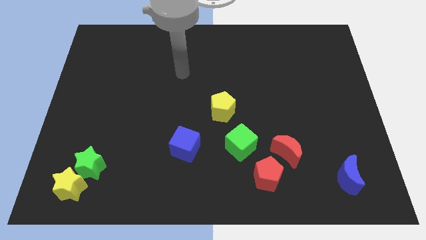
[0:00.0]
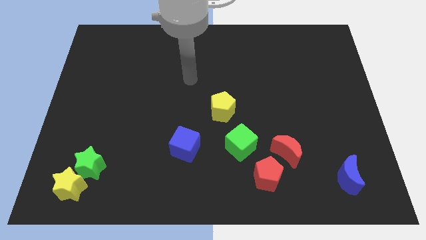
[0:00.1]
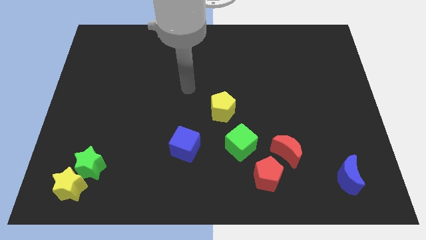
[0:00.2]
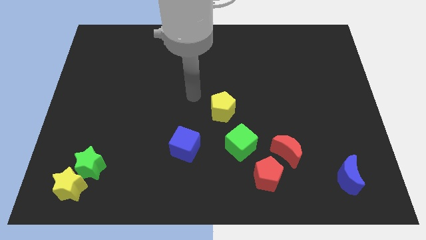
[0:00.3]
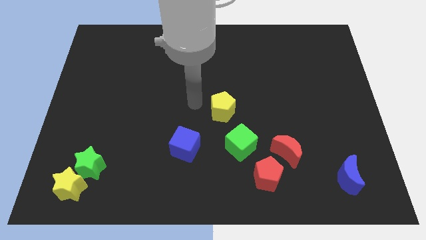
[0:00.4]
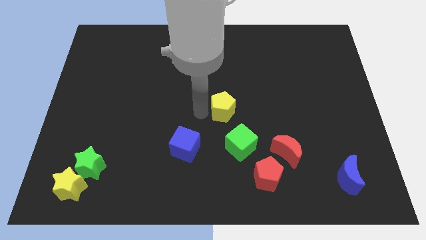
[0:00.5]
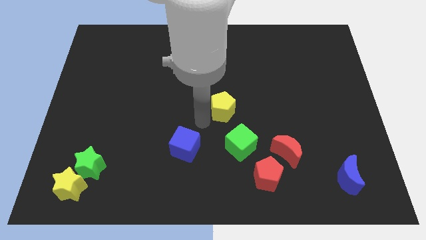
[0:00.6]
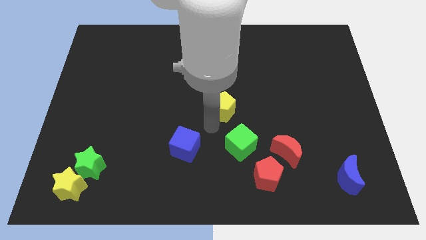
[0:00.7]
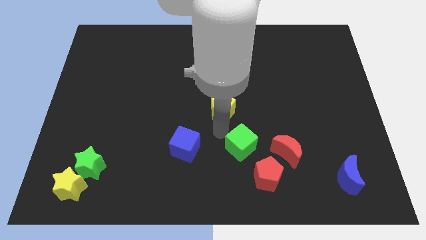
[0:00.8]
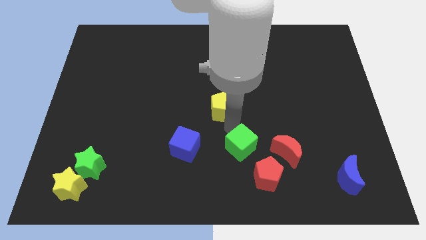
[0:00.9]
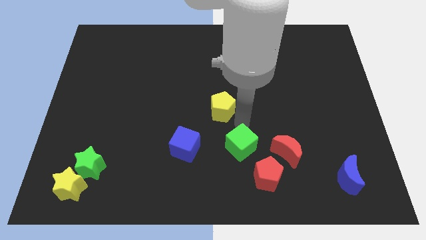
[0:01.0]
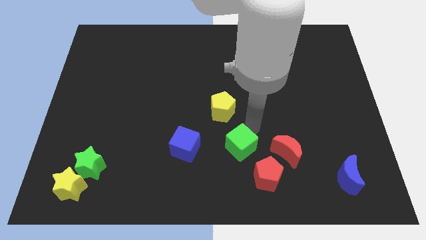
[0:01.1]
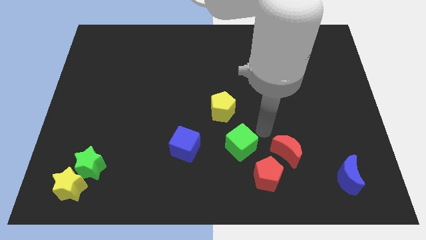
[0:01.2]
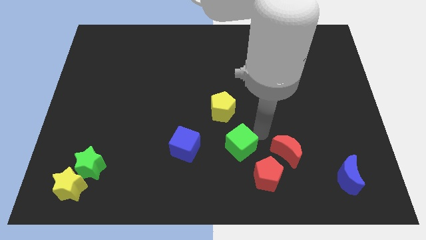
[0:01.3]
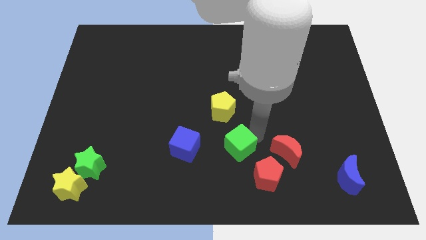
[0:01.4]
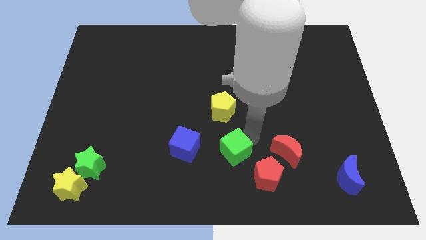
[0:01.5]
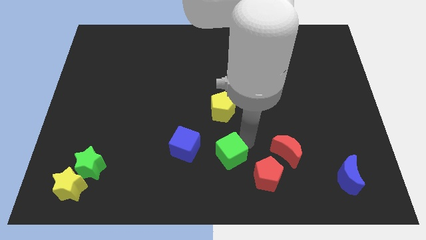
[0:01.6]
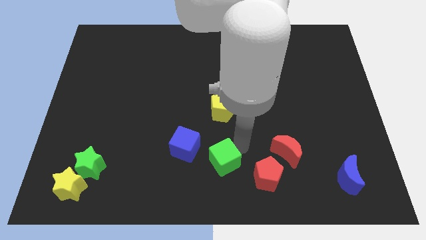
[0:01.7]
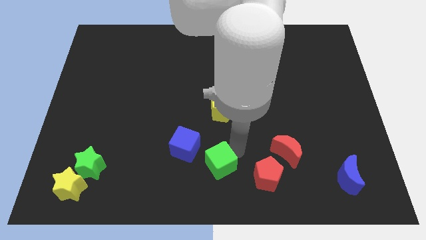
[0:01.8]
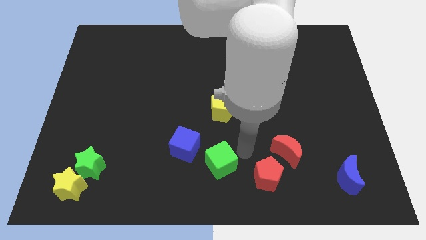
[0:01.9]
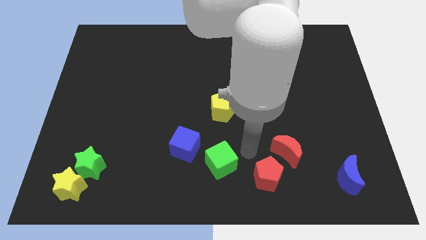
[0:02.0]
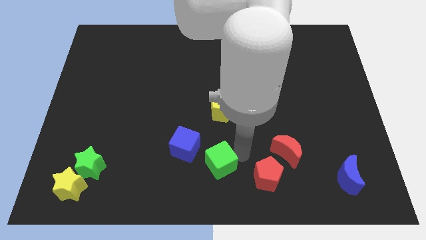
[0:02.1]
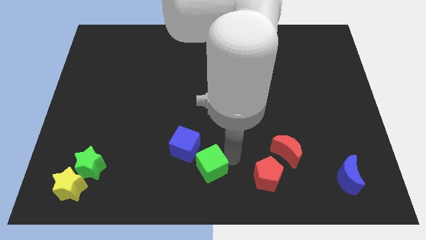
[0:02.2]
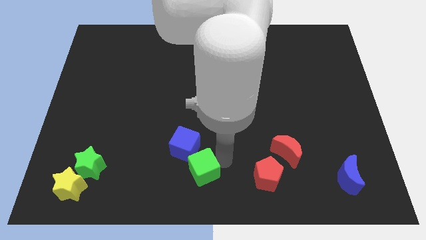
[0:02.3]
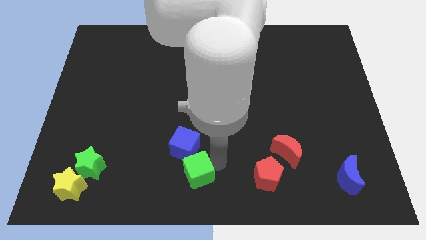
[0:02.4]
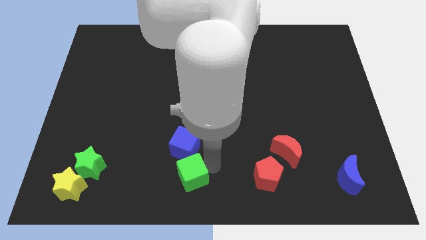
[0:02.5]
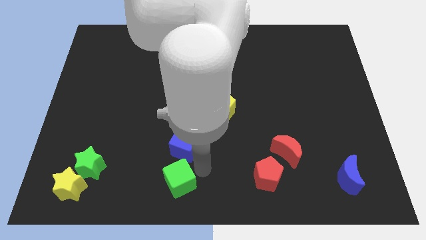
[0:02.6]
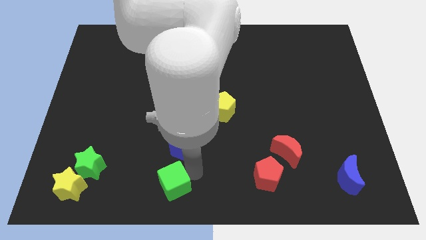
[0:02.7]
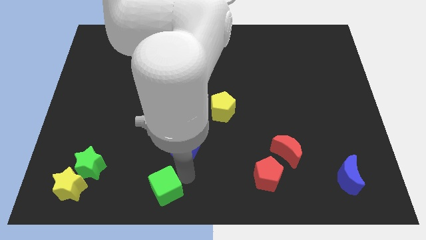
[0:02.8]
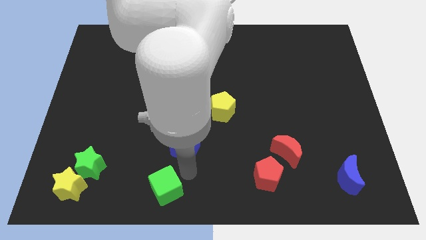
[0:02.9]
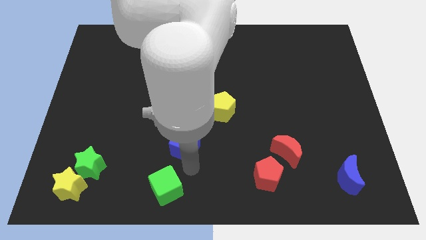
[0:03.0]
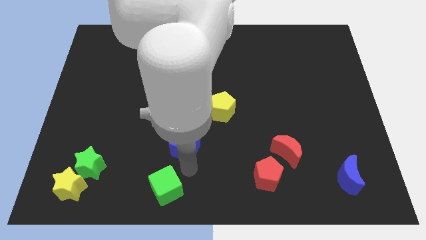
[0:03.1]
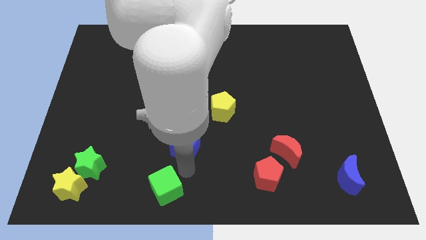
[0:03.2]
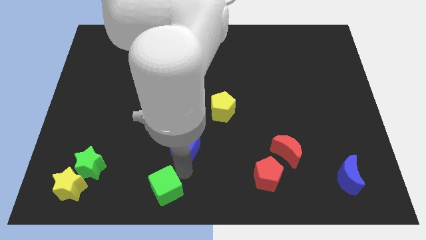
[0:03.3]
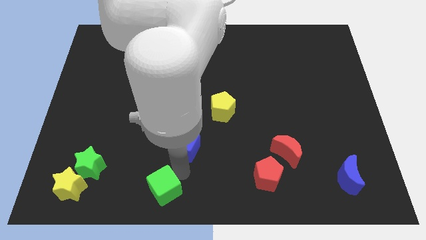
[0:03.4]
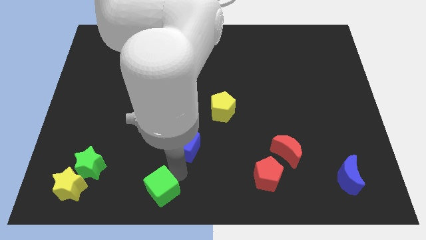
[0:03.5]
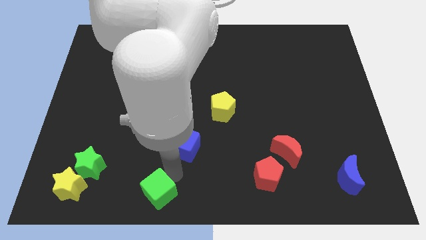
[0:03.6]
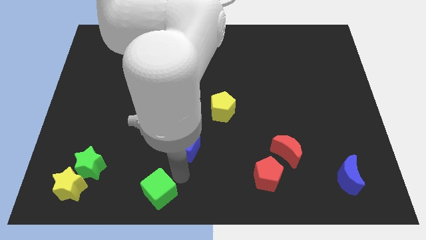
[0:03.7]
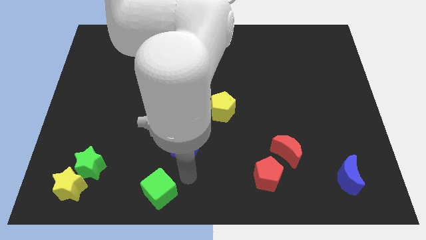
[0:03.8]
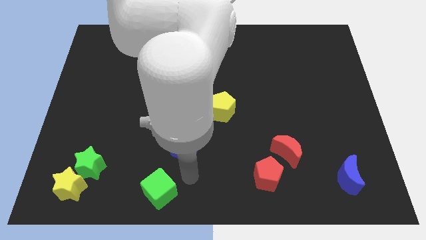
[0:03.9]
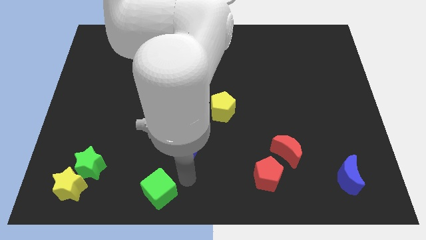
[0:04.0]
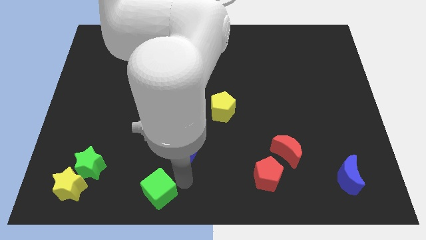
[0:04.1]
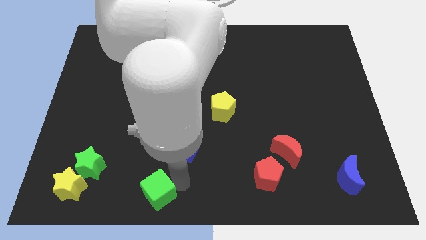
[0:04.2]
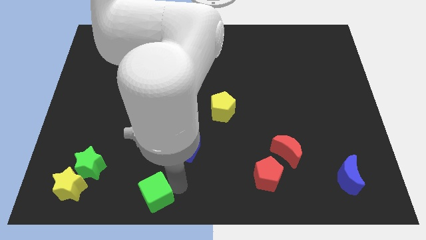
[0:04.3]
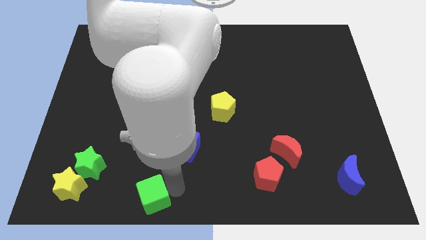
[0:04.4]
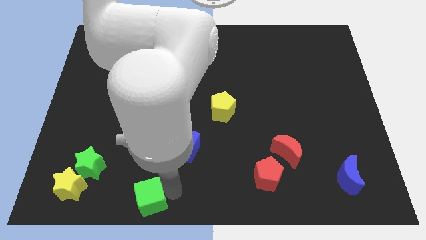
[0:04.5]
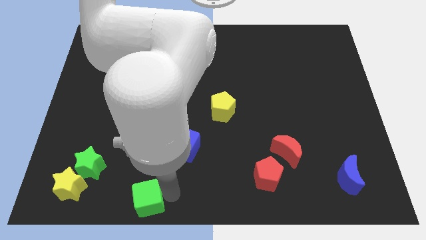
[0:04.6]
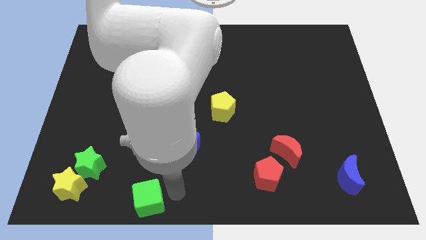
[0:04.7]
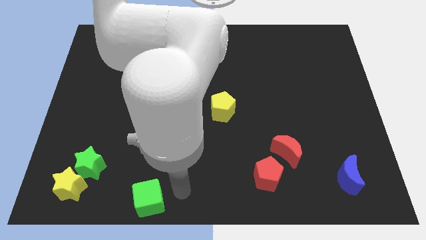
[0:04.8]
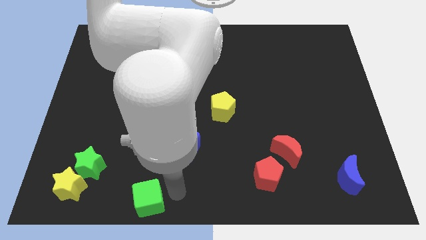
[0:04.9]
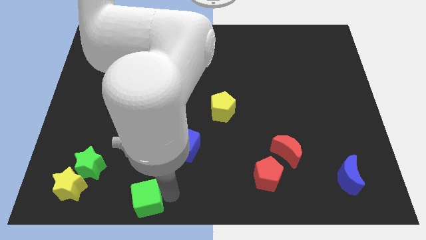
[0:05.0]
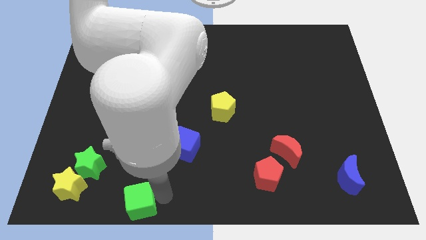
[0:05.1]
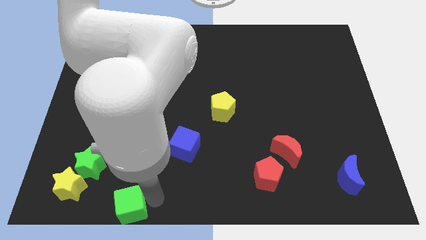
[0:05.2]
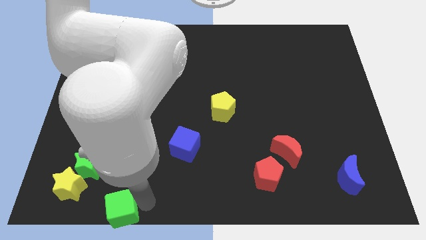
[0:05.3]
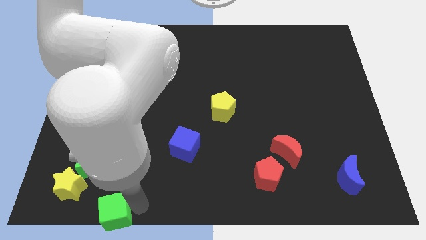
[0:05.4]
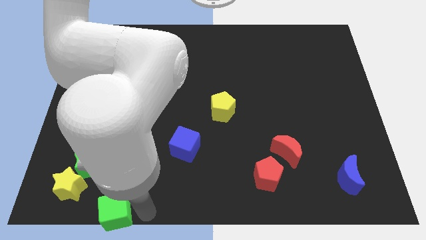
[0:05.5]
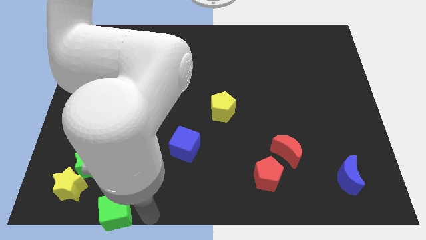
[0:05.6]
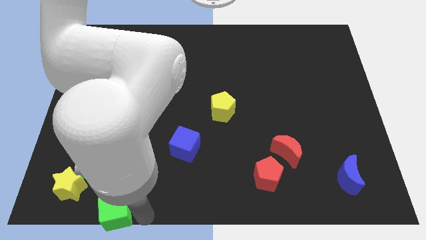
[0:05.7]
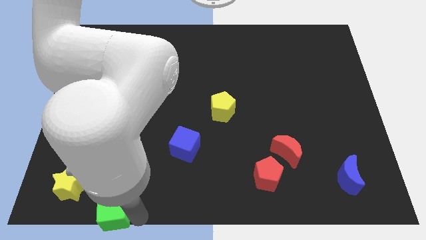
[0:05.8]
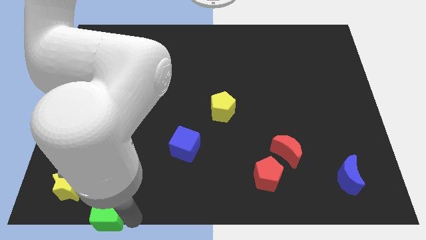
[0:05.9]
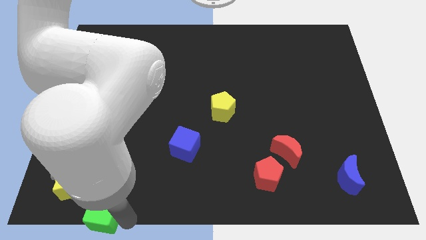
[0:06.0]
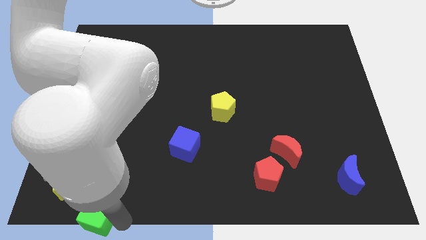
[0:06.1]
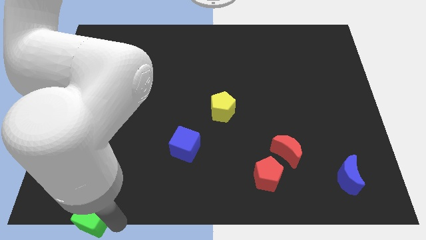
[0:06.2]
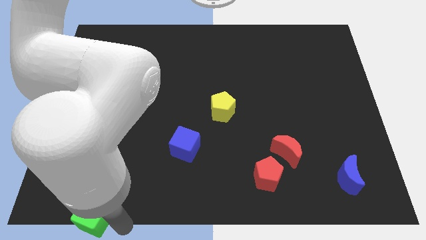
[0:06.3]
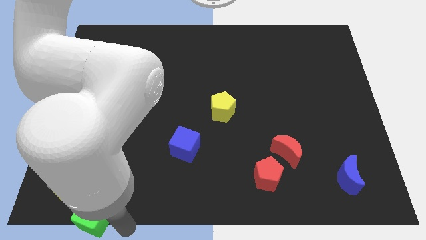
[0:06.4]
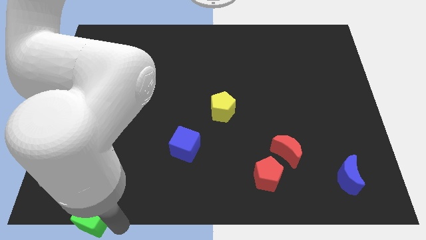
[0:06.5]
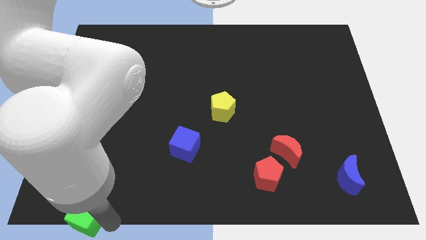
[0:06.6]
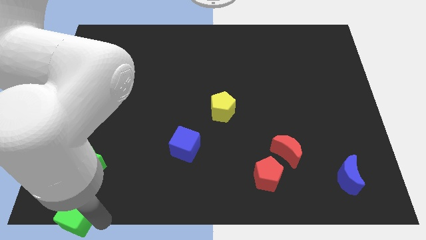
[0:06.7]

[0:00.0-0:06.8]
move the green cube to the bottom left of the board
